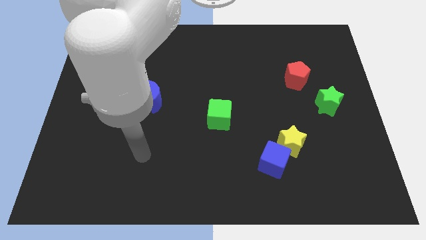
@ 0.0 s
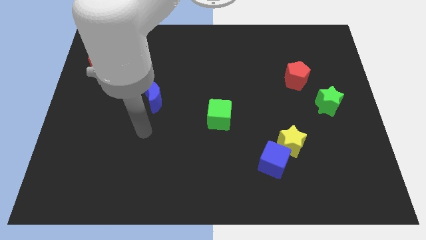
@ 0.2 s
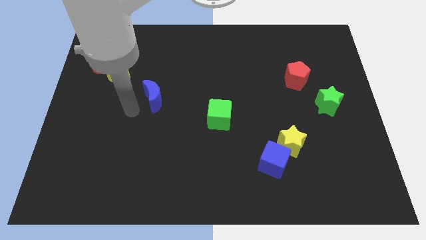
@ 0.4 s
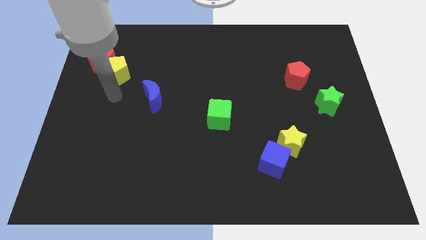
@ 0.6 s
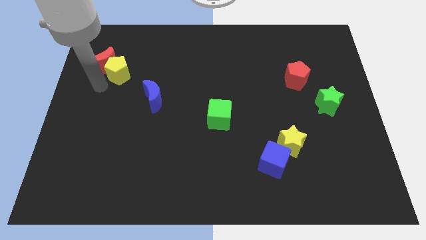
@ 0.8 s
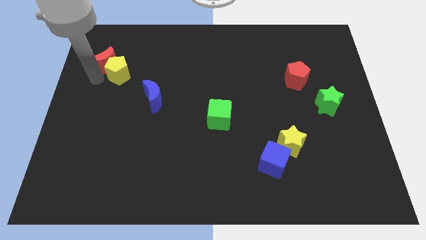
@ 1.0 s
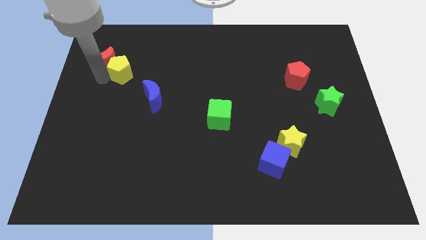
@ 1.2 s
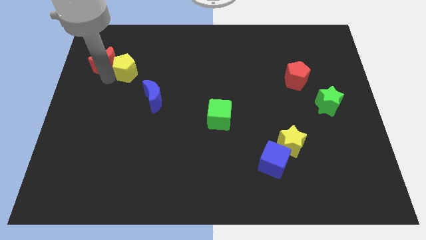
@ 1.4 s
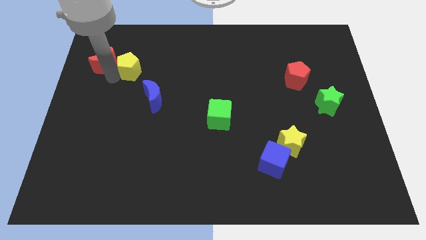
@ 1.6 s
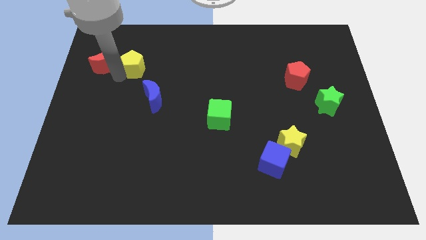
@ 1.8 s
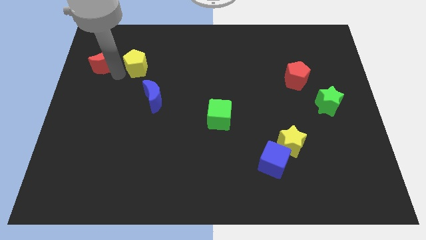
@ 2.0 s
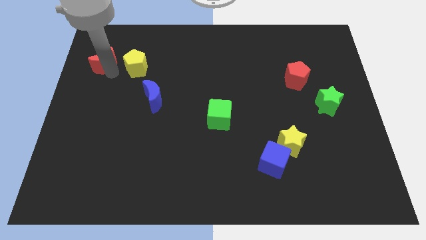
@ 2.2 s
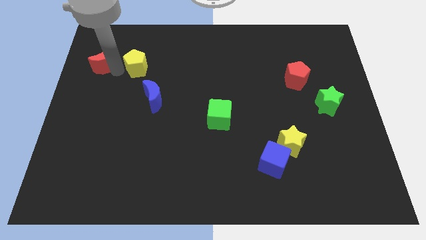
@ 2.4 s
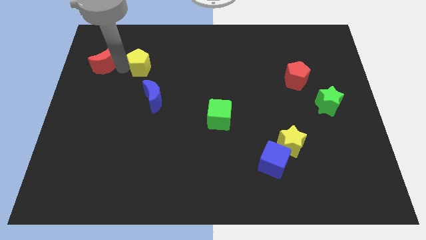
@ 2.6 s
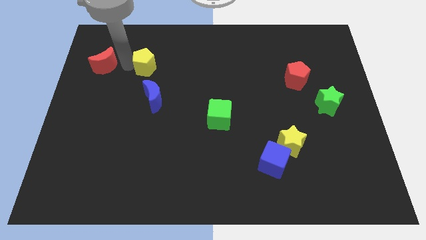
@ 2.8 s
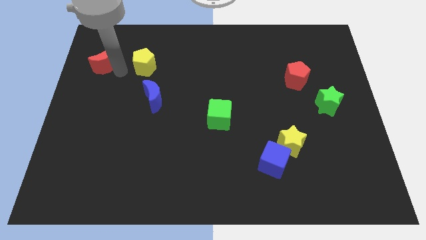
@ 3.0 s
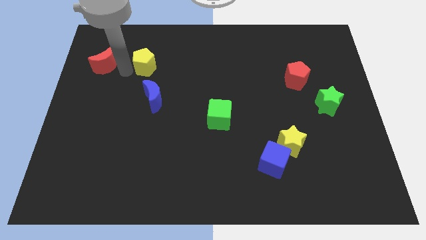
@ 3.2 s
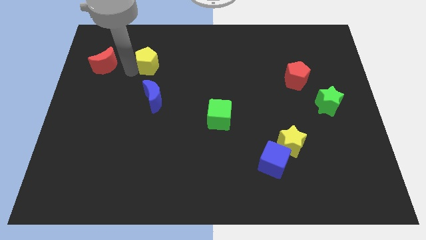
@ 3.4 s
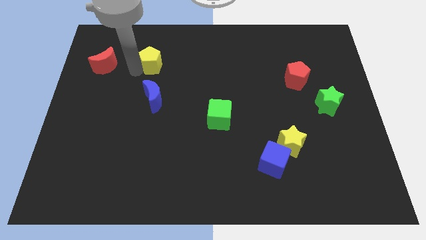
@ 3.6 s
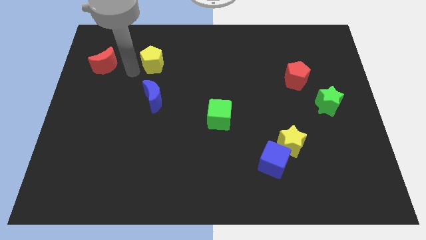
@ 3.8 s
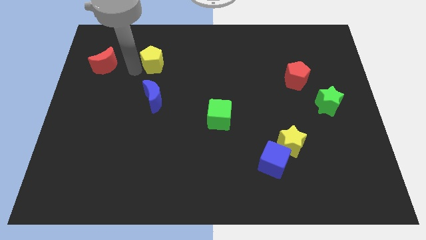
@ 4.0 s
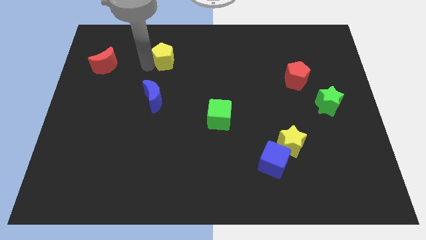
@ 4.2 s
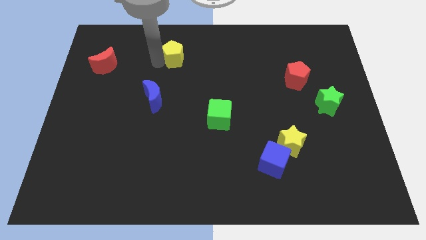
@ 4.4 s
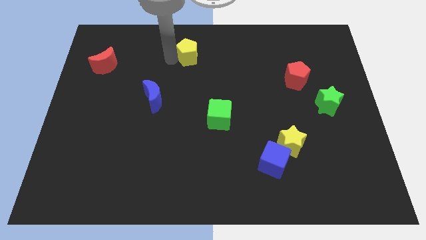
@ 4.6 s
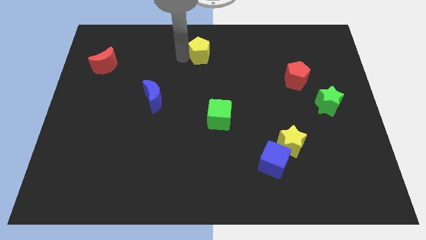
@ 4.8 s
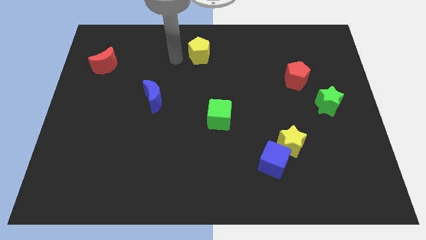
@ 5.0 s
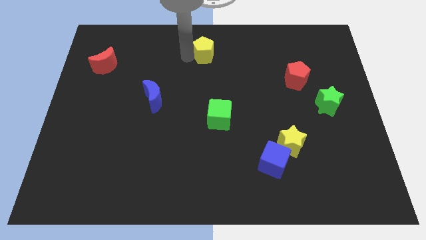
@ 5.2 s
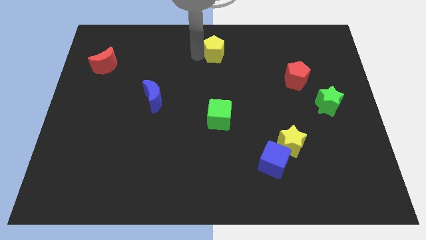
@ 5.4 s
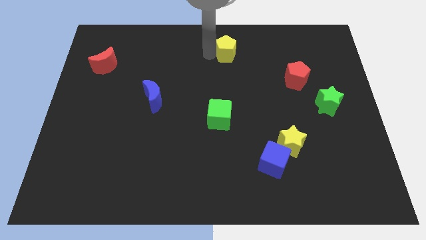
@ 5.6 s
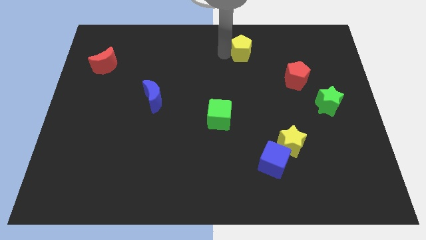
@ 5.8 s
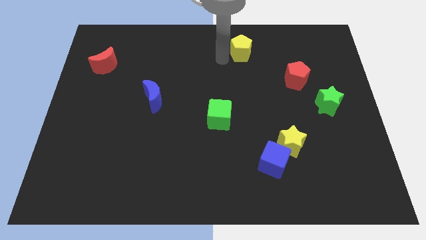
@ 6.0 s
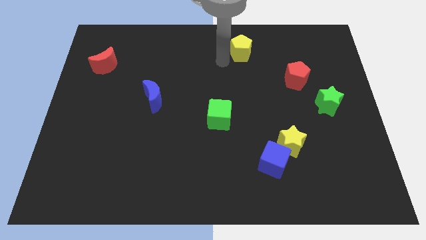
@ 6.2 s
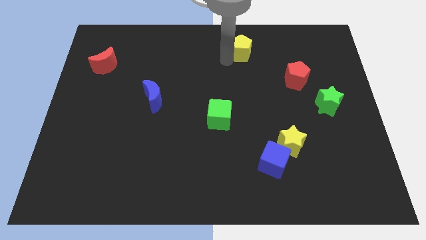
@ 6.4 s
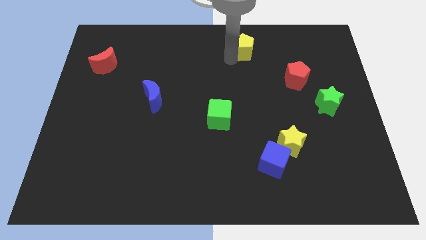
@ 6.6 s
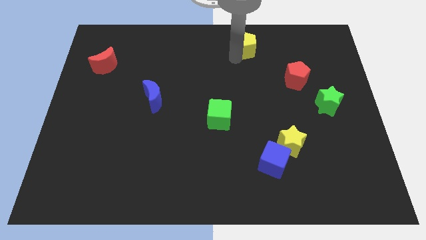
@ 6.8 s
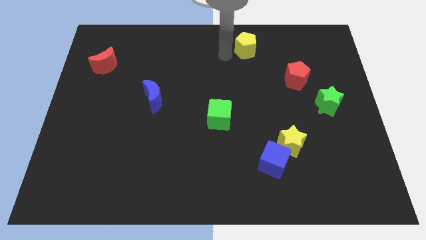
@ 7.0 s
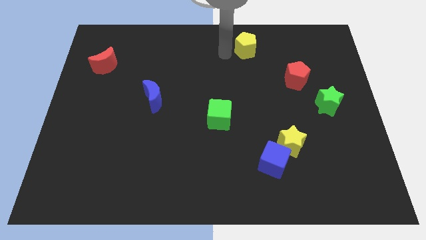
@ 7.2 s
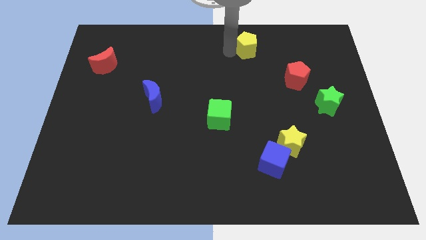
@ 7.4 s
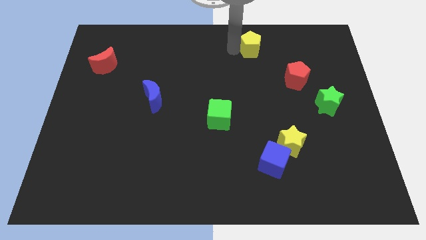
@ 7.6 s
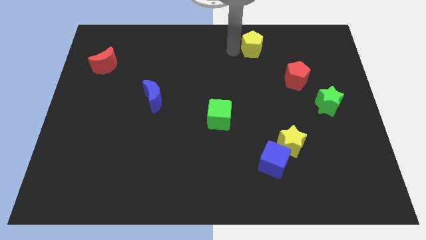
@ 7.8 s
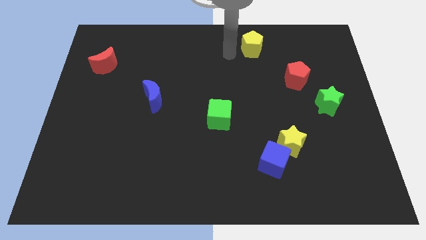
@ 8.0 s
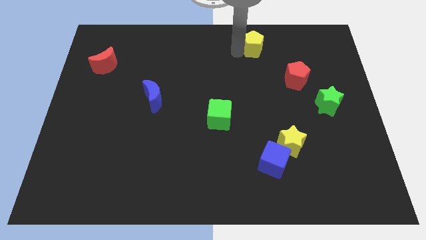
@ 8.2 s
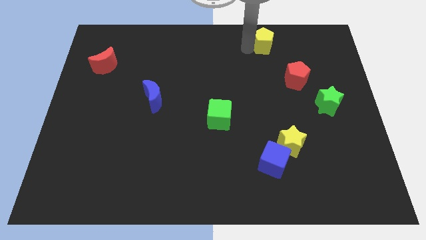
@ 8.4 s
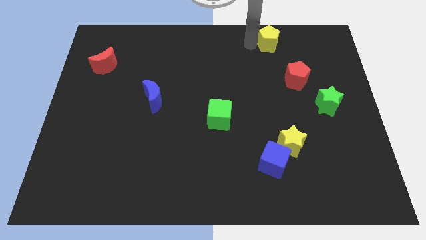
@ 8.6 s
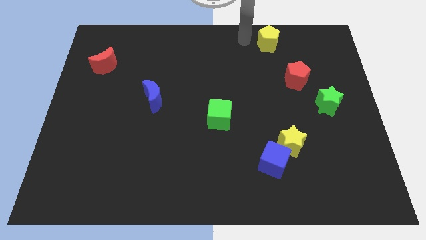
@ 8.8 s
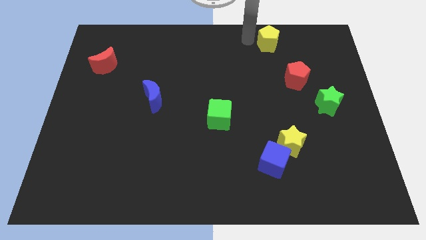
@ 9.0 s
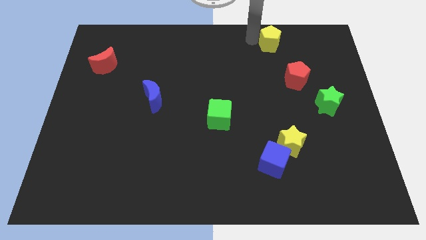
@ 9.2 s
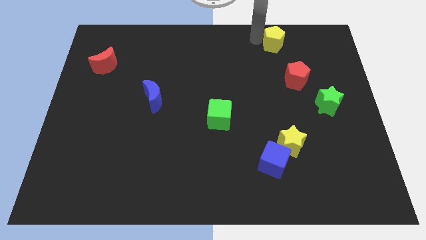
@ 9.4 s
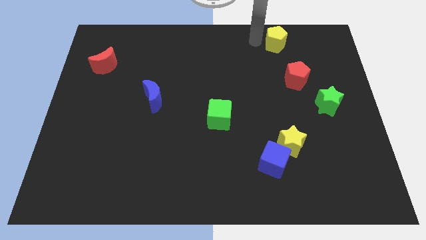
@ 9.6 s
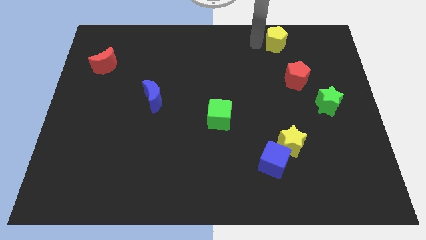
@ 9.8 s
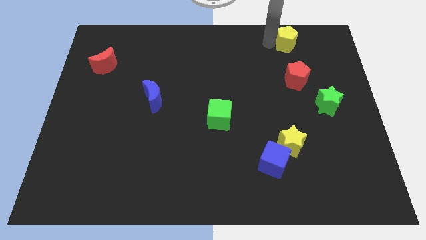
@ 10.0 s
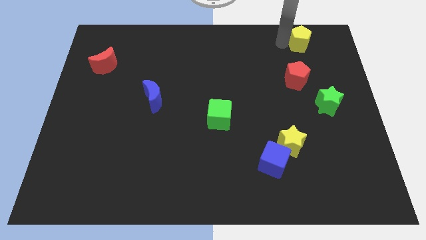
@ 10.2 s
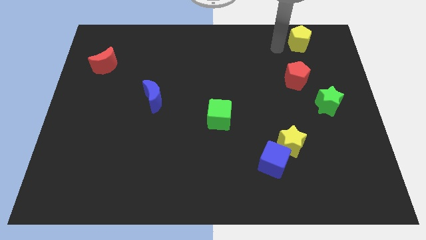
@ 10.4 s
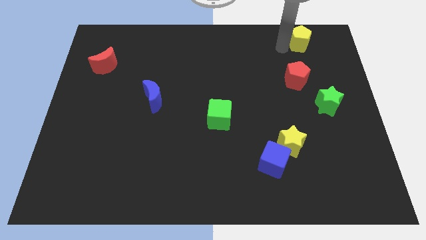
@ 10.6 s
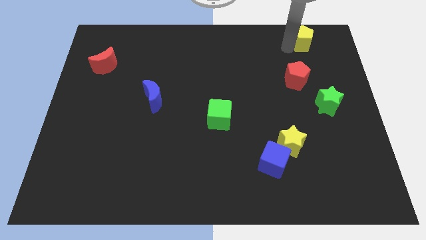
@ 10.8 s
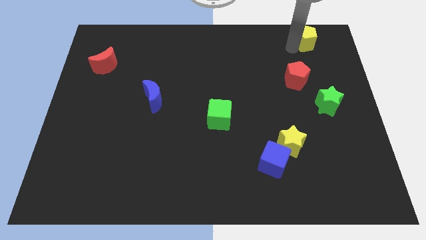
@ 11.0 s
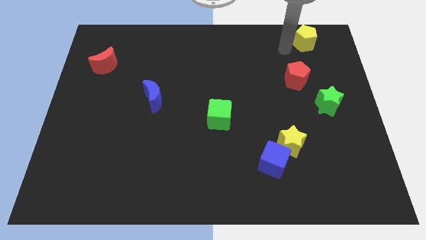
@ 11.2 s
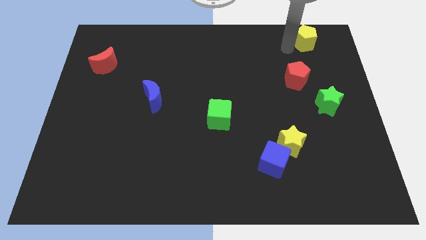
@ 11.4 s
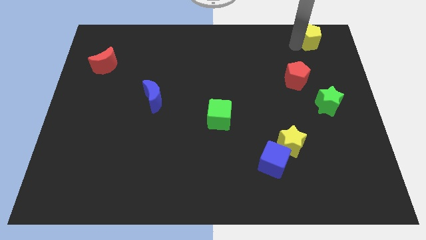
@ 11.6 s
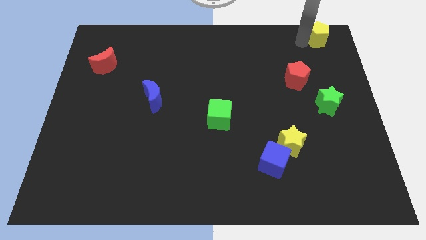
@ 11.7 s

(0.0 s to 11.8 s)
move the yellow pentagon to the top right of the board

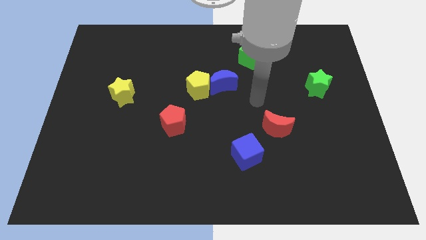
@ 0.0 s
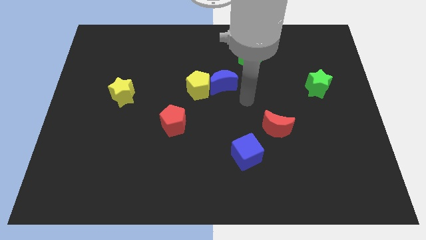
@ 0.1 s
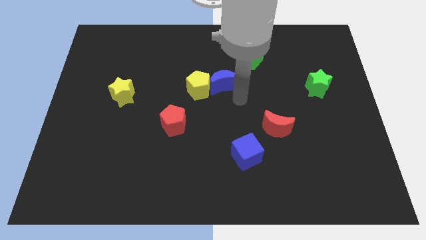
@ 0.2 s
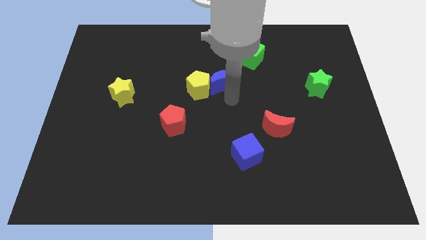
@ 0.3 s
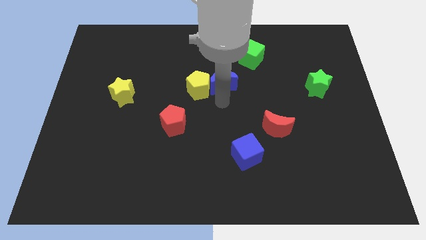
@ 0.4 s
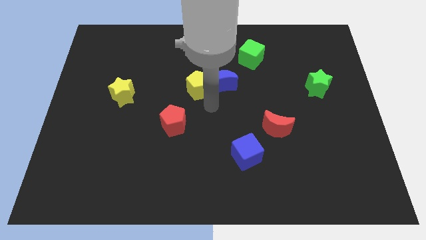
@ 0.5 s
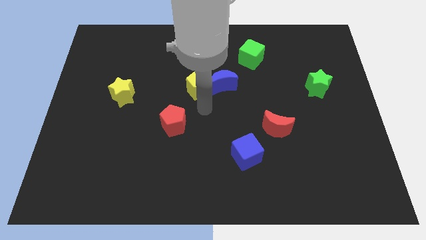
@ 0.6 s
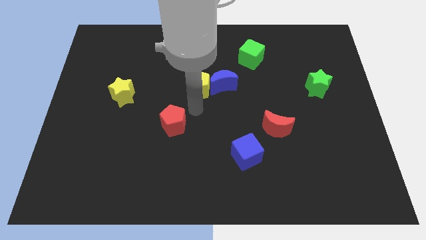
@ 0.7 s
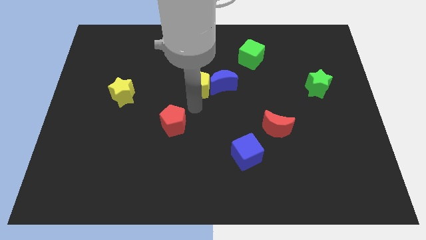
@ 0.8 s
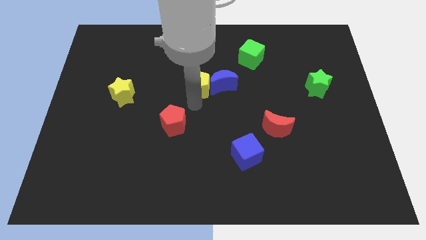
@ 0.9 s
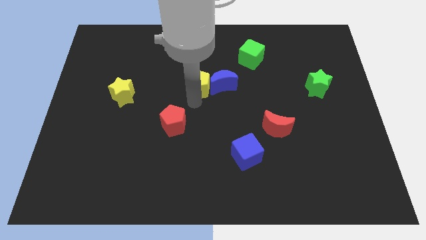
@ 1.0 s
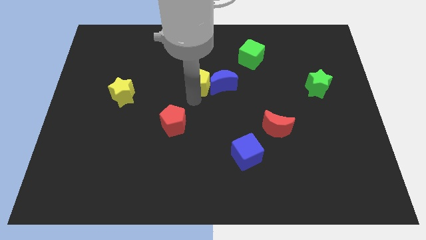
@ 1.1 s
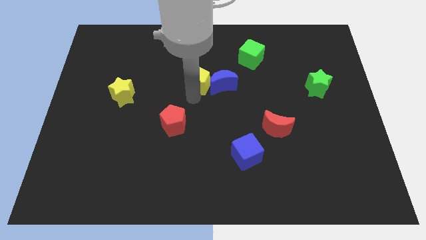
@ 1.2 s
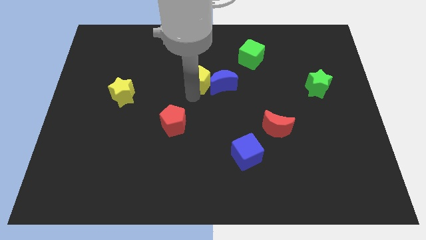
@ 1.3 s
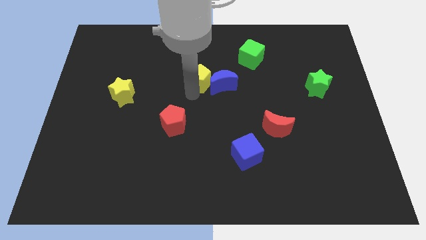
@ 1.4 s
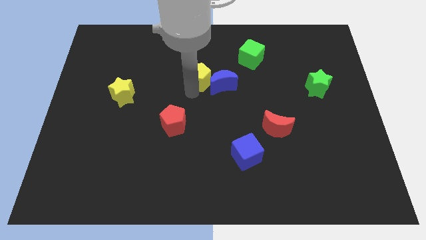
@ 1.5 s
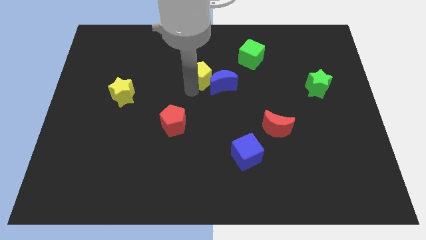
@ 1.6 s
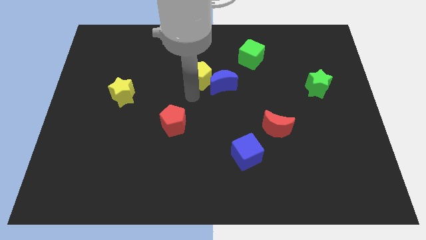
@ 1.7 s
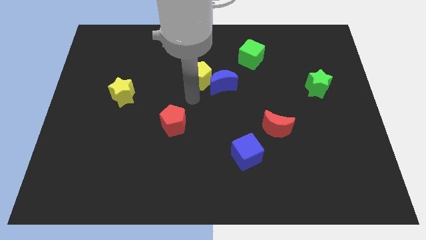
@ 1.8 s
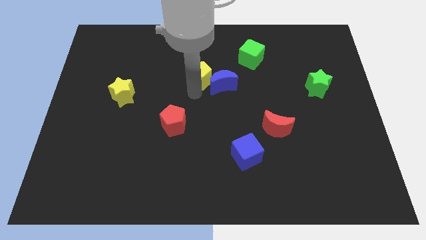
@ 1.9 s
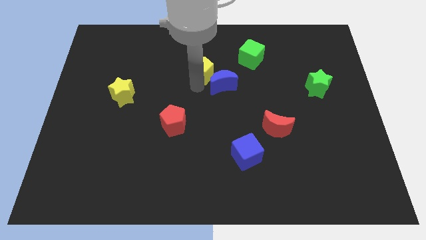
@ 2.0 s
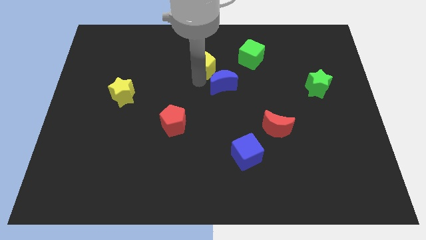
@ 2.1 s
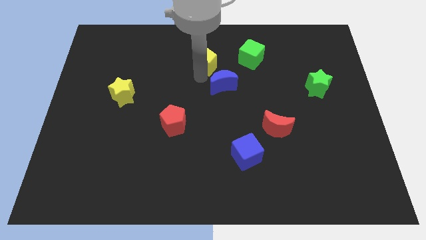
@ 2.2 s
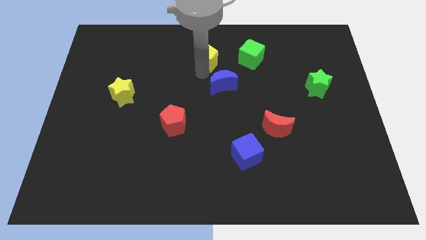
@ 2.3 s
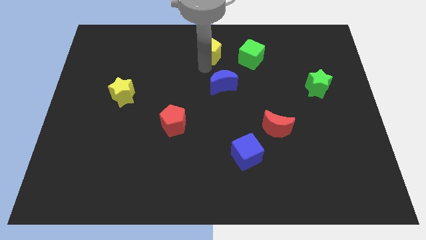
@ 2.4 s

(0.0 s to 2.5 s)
push the yellow pentagon to the top
